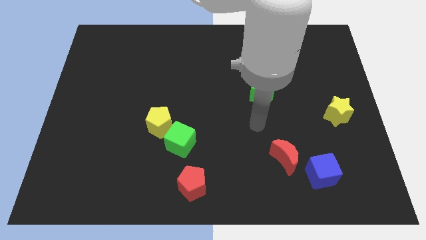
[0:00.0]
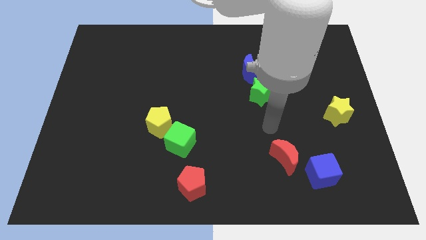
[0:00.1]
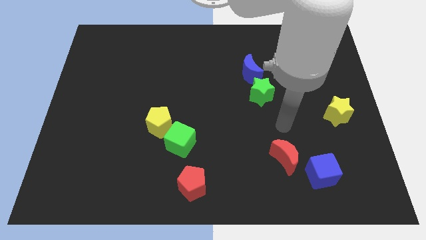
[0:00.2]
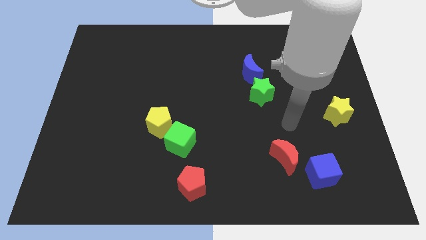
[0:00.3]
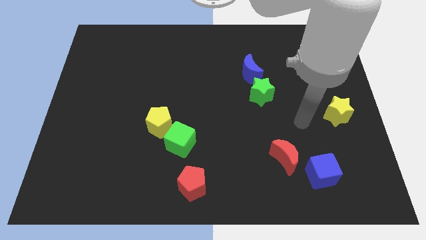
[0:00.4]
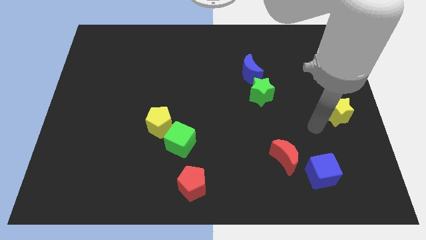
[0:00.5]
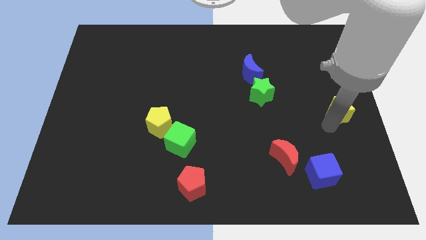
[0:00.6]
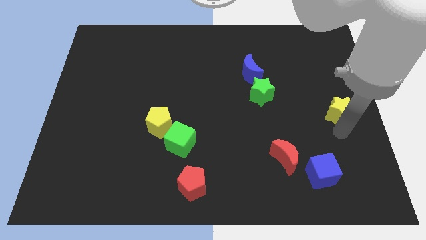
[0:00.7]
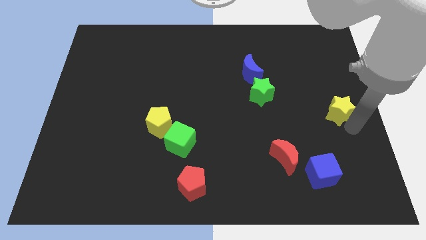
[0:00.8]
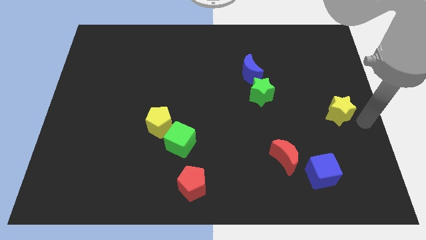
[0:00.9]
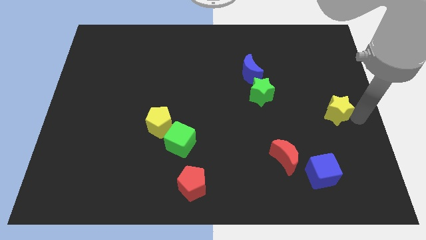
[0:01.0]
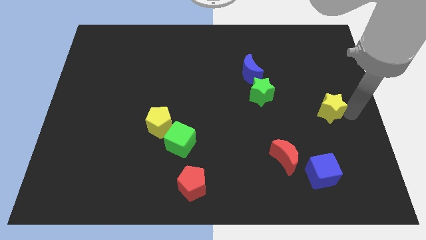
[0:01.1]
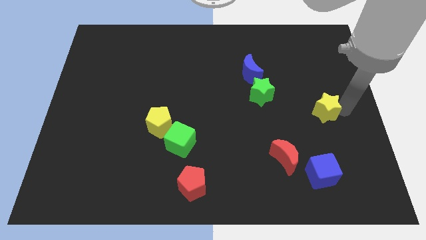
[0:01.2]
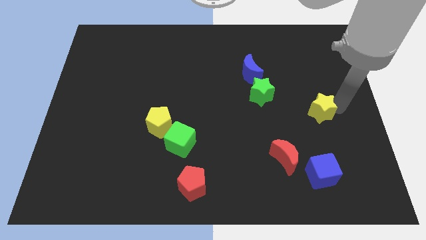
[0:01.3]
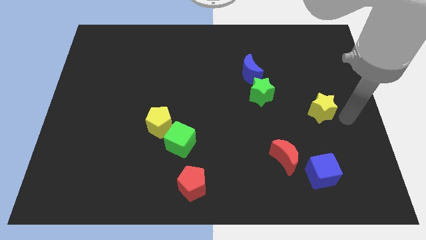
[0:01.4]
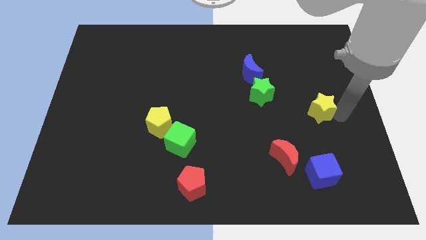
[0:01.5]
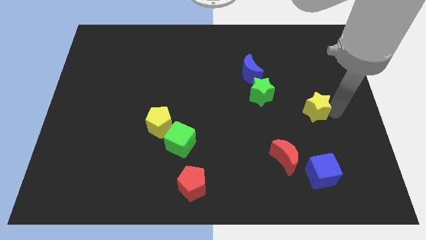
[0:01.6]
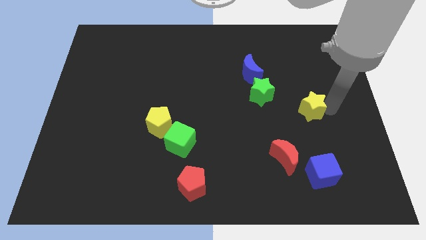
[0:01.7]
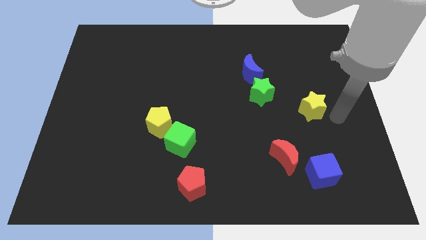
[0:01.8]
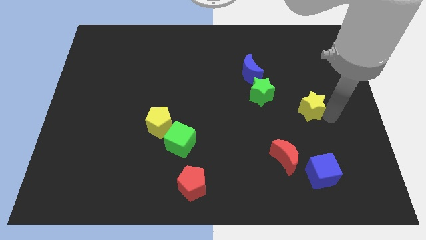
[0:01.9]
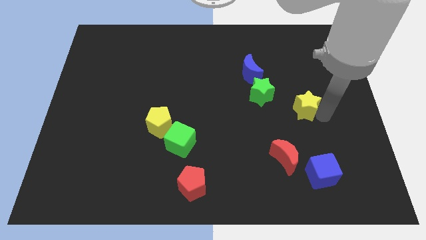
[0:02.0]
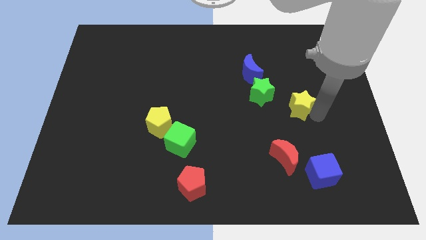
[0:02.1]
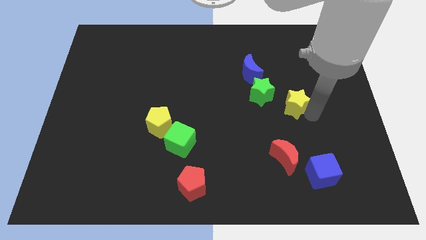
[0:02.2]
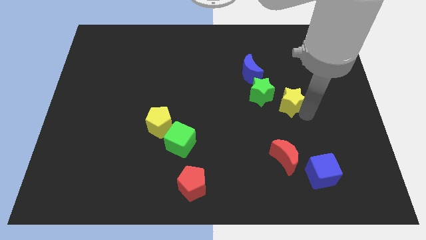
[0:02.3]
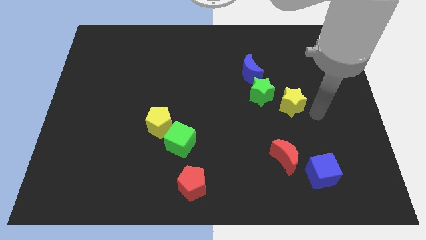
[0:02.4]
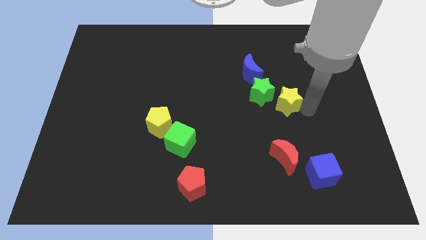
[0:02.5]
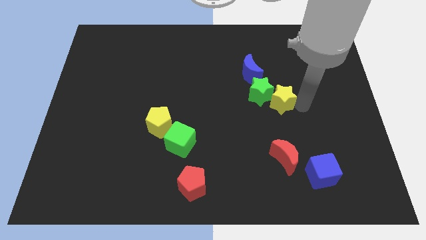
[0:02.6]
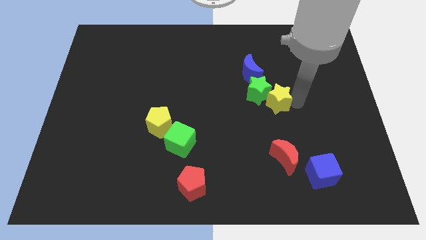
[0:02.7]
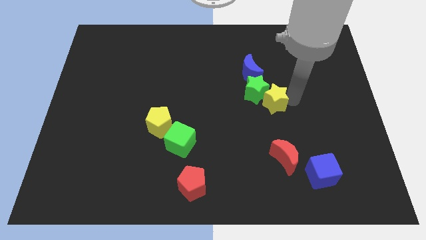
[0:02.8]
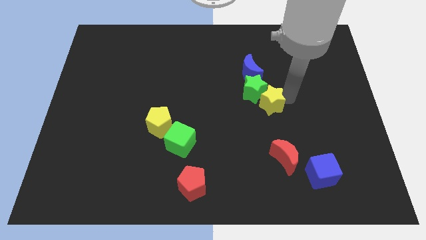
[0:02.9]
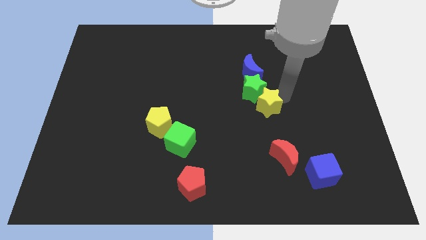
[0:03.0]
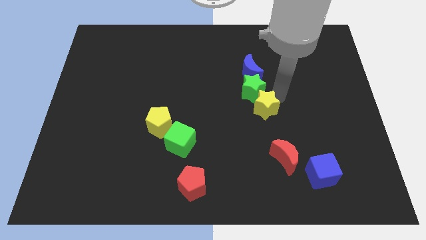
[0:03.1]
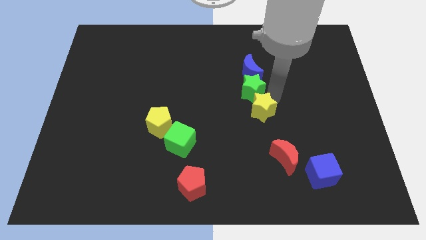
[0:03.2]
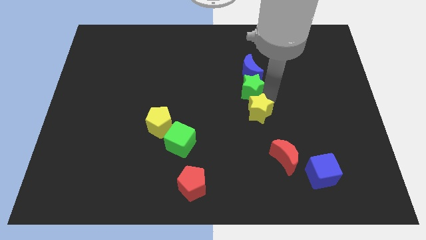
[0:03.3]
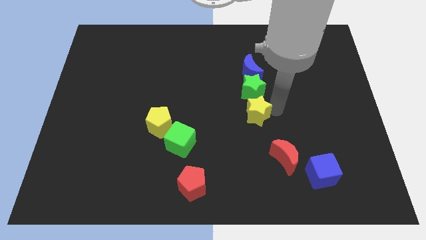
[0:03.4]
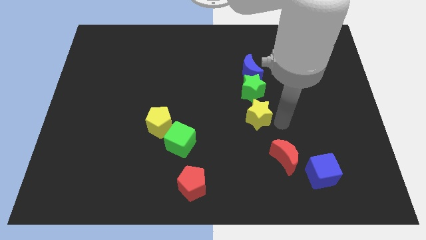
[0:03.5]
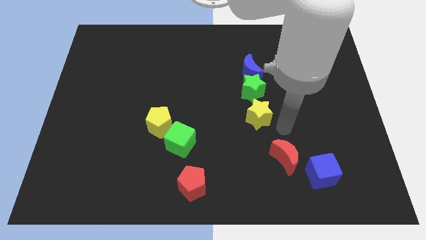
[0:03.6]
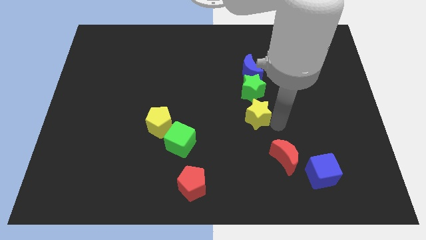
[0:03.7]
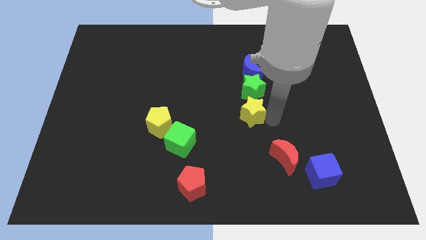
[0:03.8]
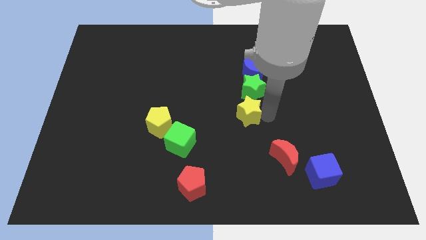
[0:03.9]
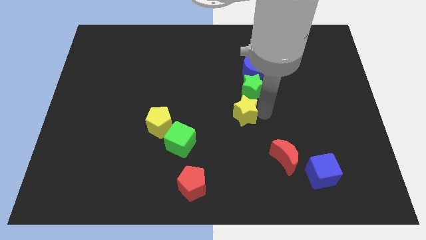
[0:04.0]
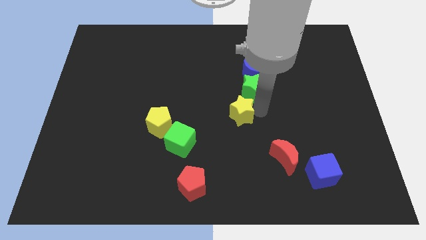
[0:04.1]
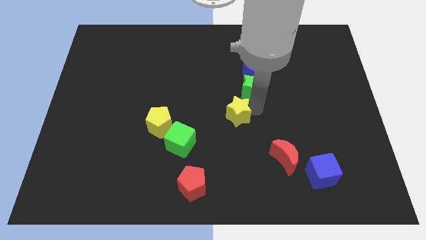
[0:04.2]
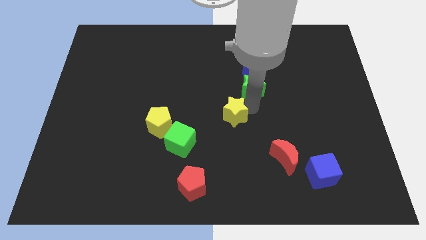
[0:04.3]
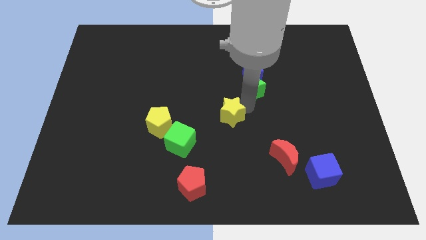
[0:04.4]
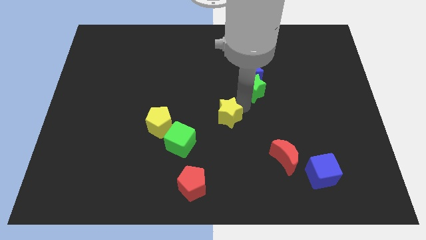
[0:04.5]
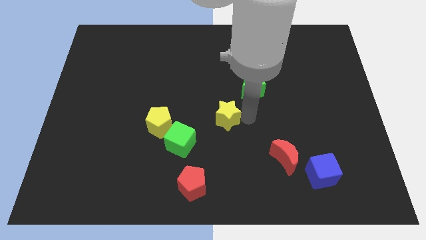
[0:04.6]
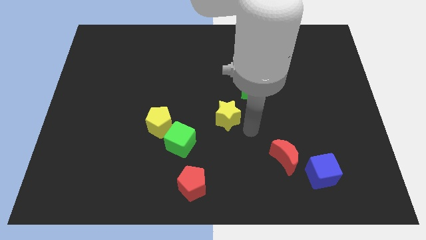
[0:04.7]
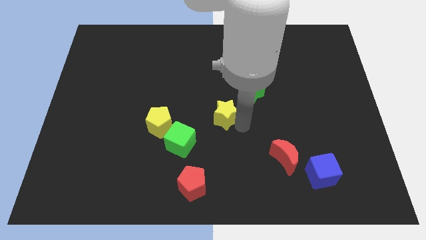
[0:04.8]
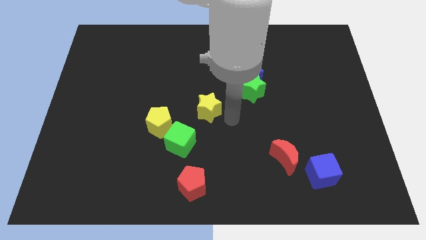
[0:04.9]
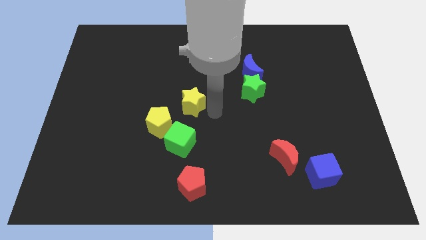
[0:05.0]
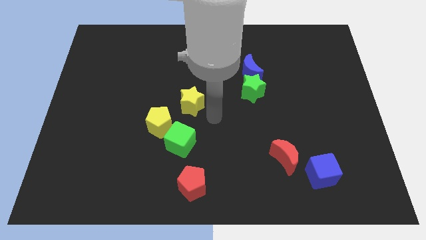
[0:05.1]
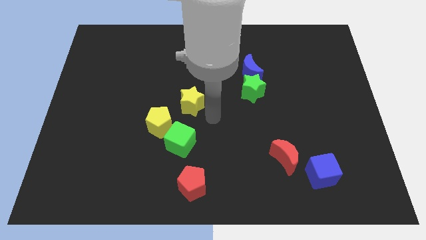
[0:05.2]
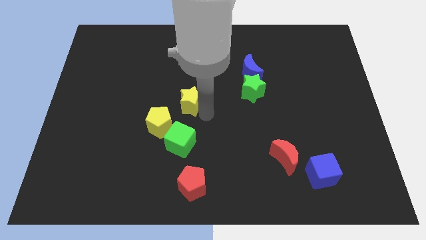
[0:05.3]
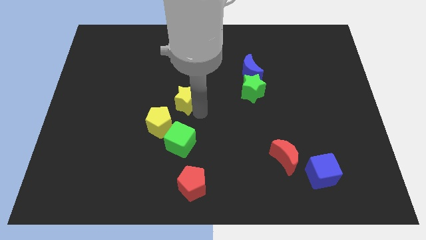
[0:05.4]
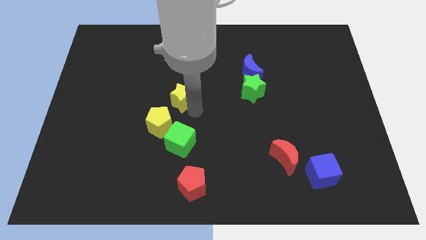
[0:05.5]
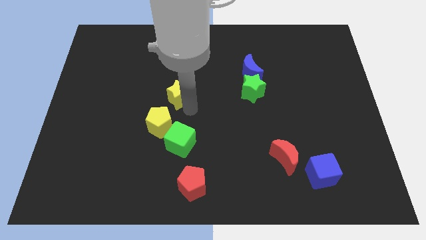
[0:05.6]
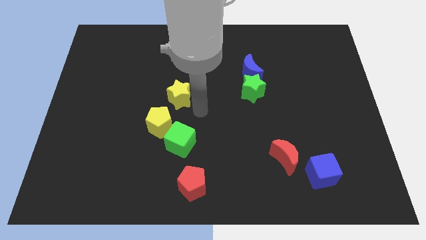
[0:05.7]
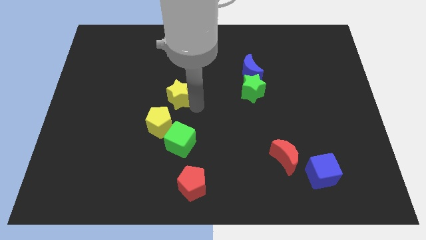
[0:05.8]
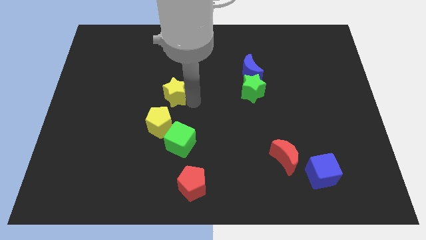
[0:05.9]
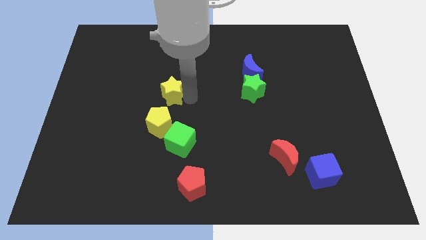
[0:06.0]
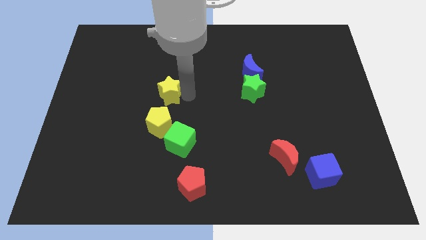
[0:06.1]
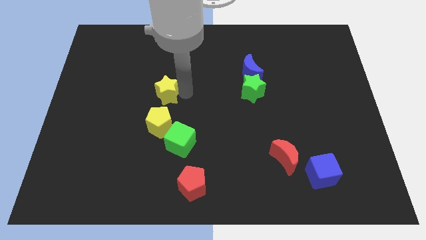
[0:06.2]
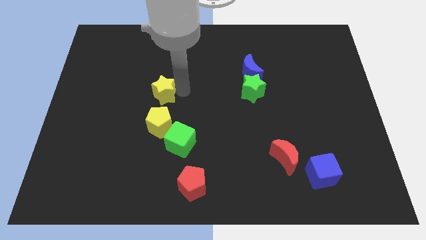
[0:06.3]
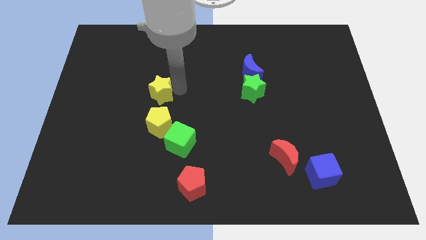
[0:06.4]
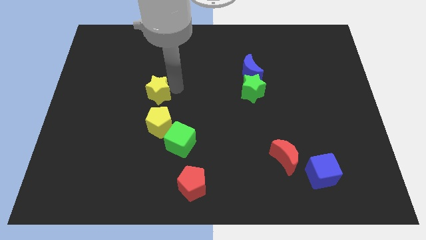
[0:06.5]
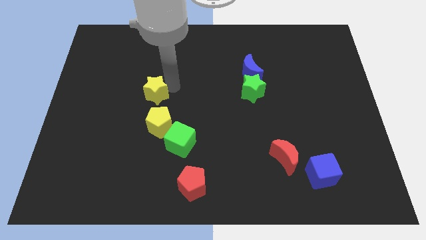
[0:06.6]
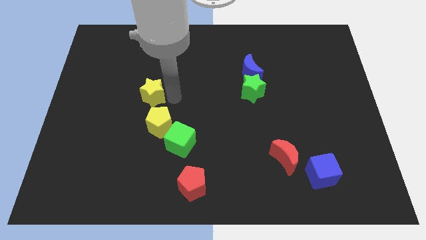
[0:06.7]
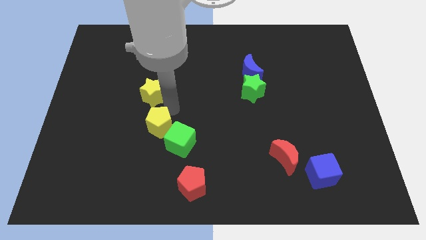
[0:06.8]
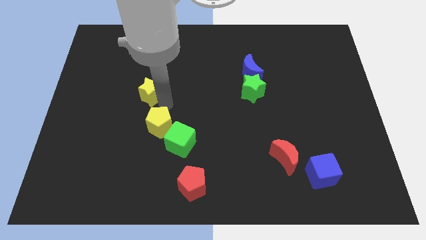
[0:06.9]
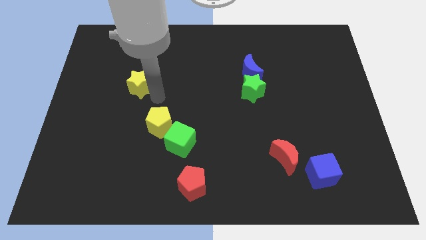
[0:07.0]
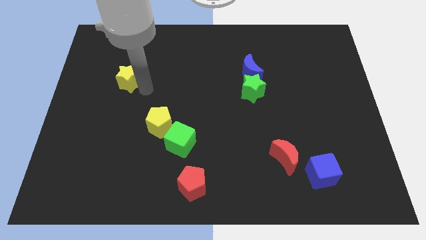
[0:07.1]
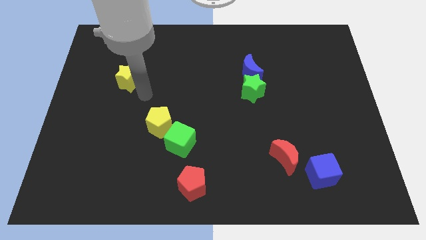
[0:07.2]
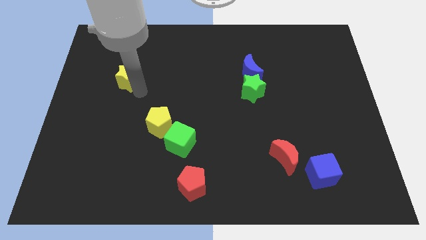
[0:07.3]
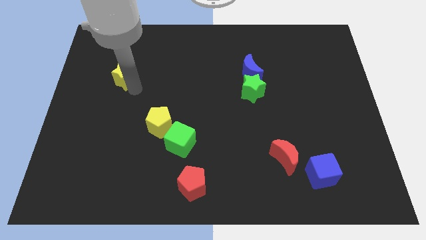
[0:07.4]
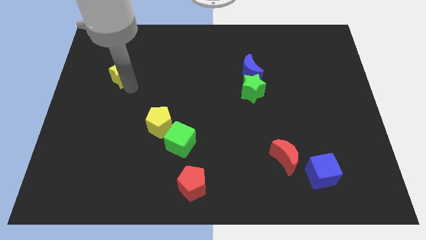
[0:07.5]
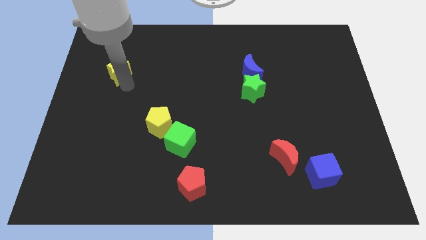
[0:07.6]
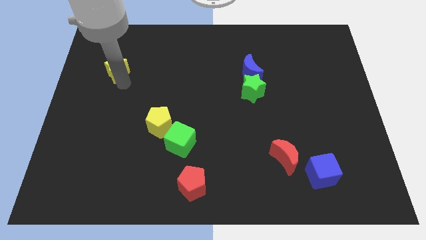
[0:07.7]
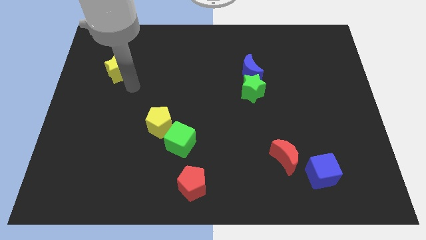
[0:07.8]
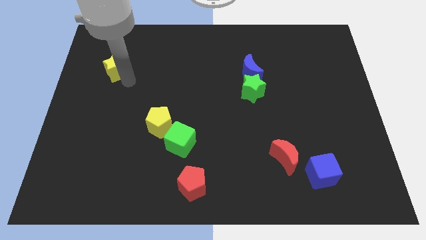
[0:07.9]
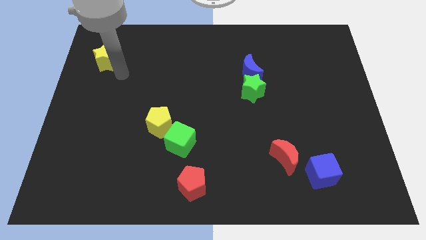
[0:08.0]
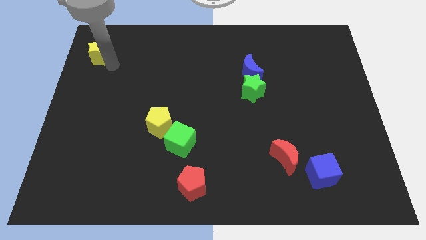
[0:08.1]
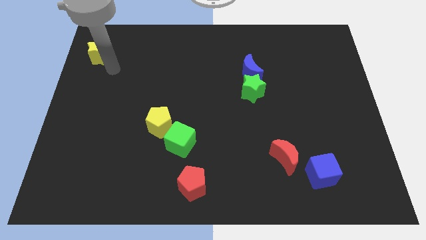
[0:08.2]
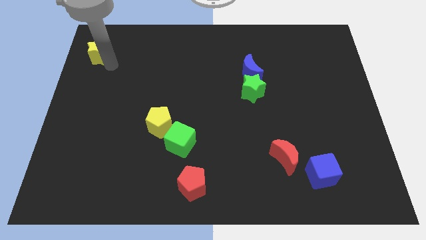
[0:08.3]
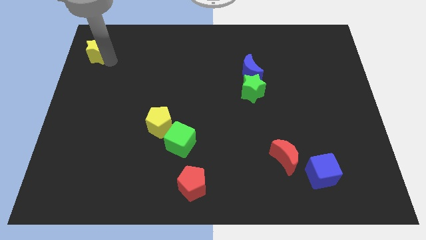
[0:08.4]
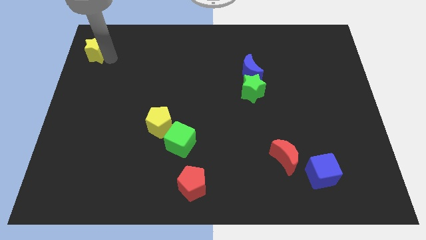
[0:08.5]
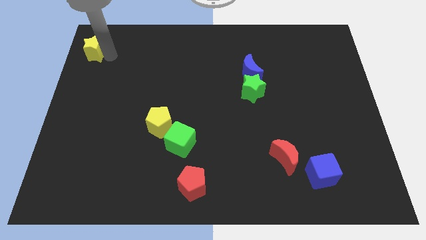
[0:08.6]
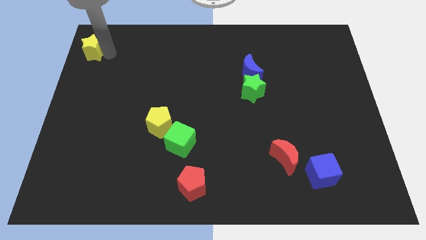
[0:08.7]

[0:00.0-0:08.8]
move the yellow star to the upper left corner
